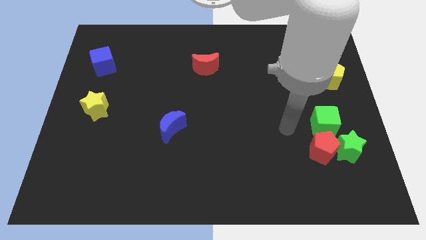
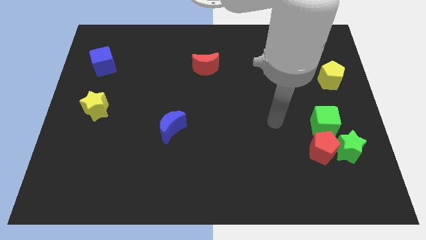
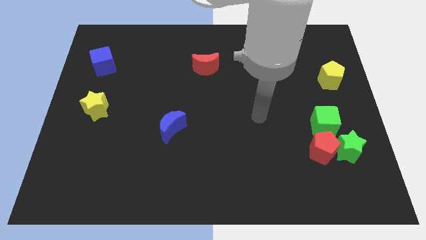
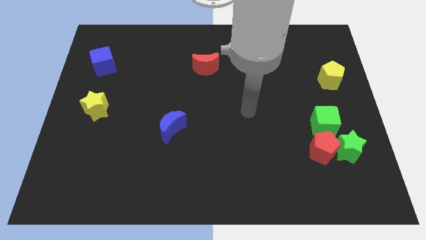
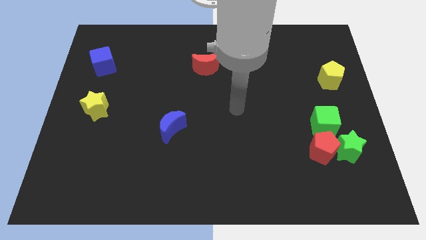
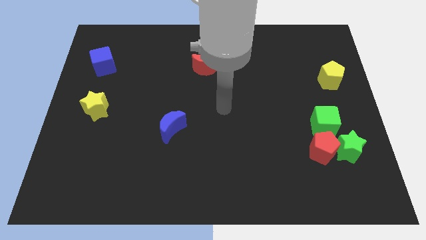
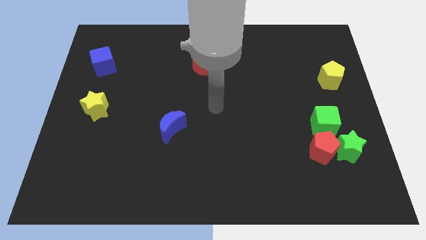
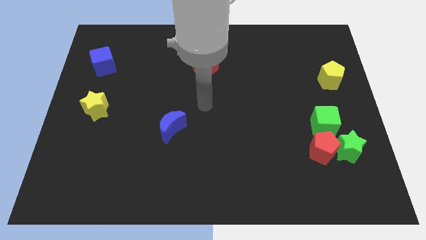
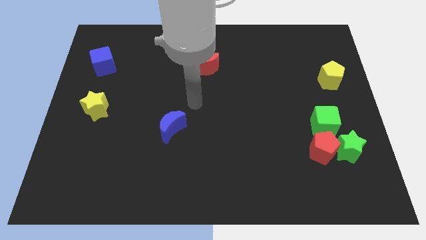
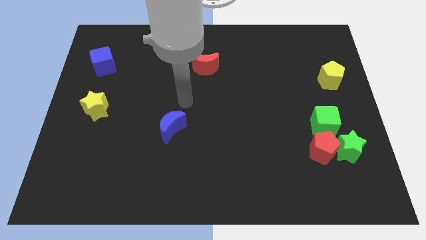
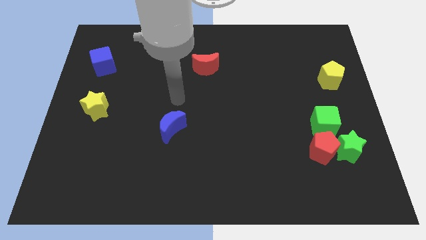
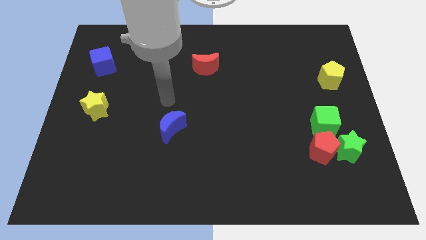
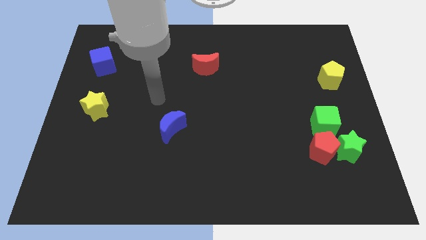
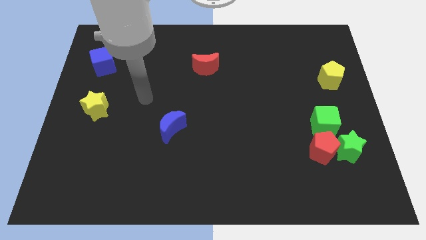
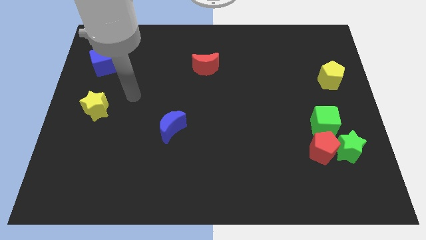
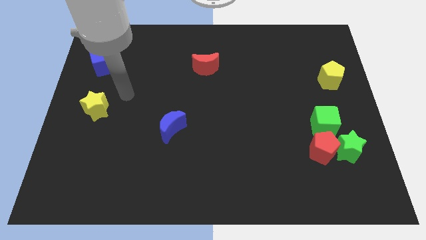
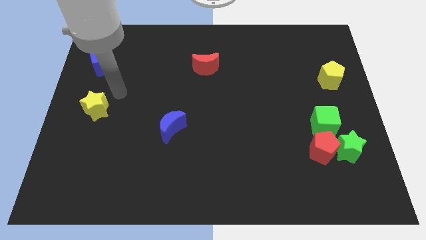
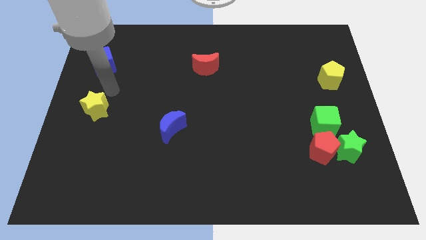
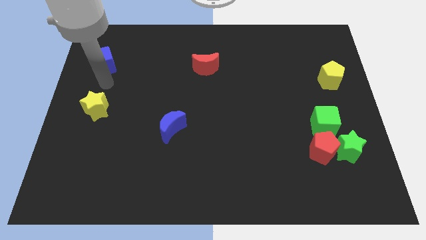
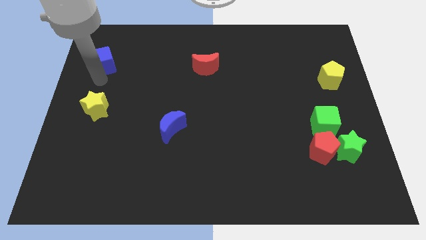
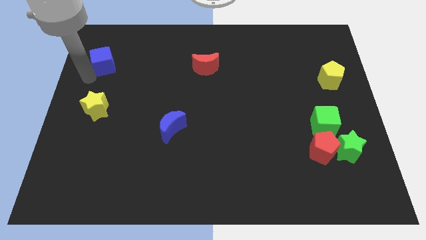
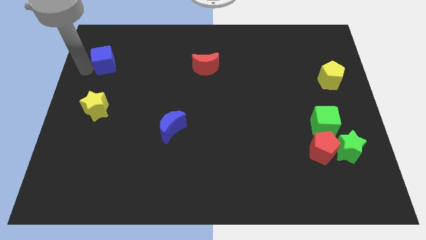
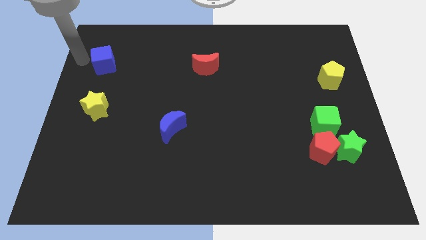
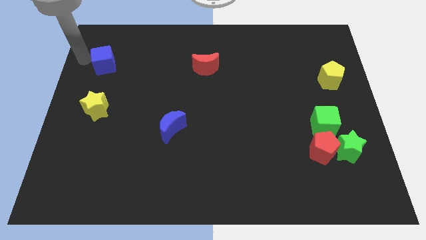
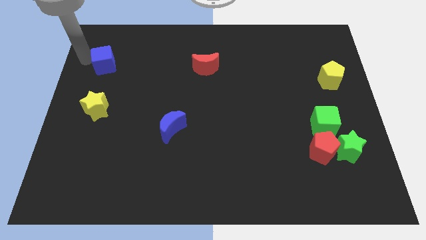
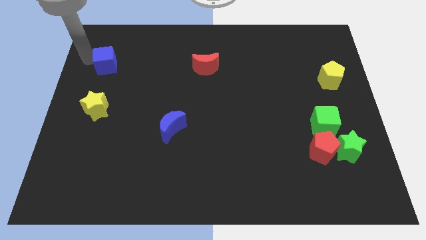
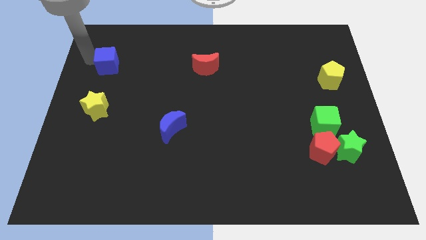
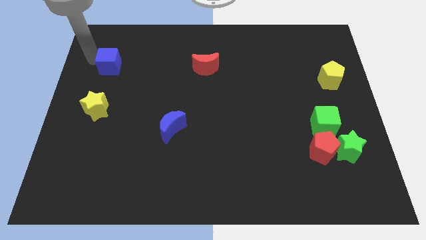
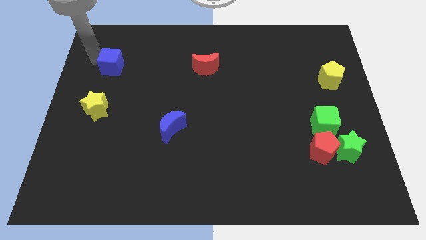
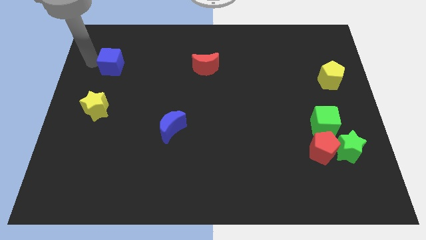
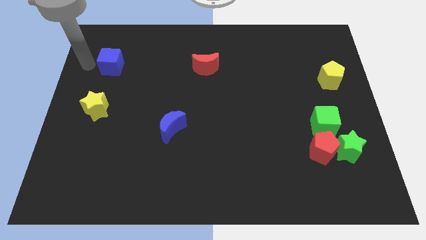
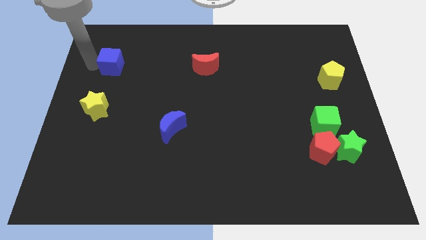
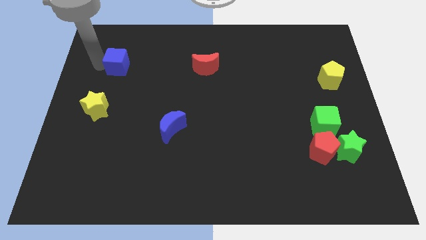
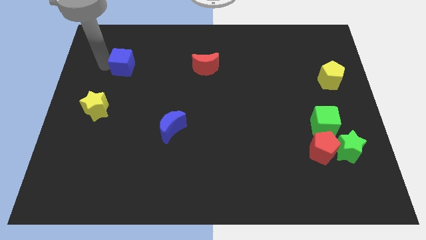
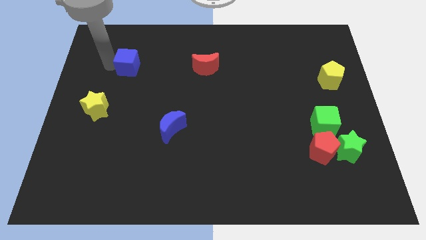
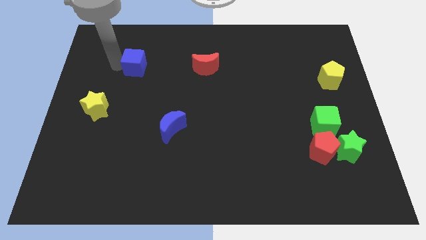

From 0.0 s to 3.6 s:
push the blue cube right a little

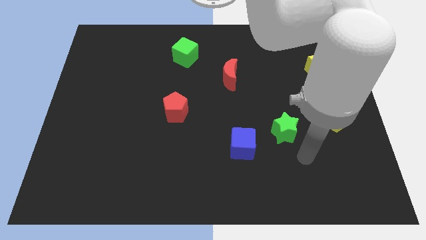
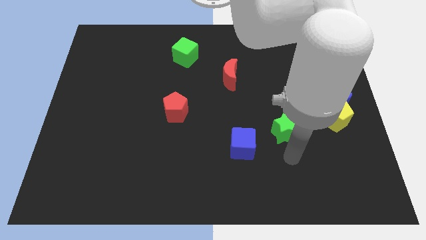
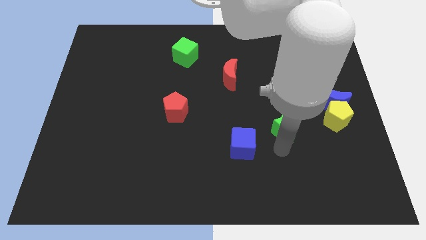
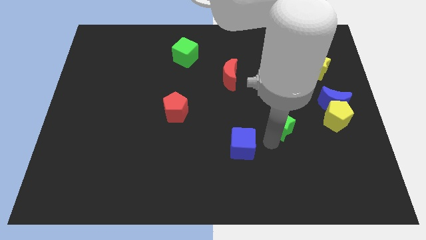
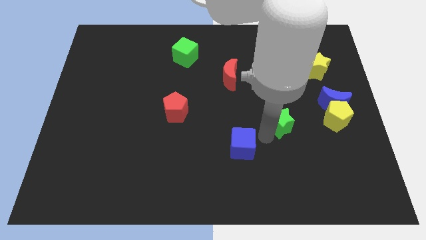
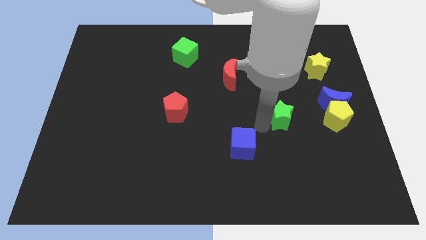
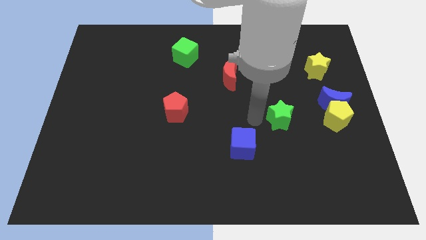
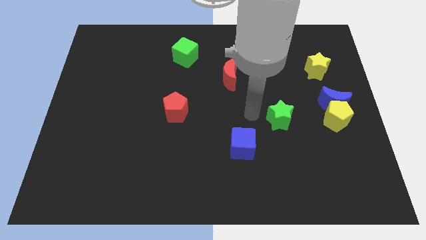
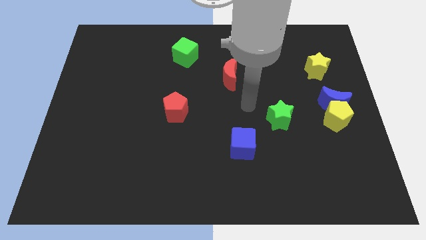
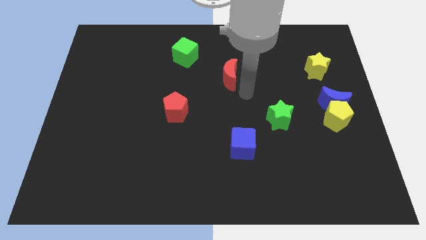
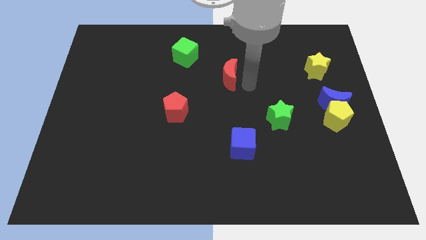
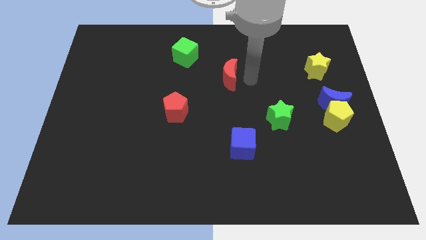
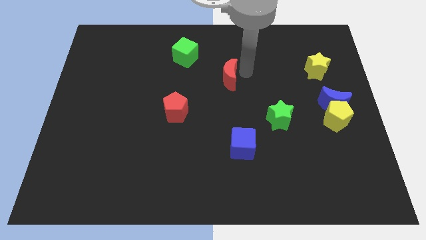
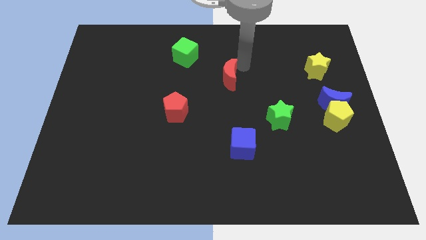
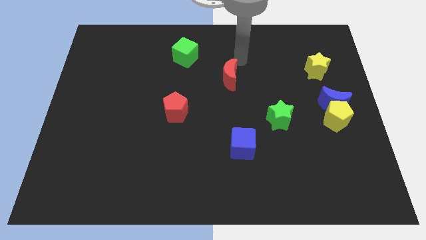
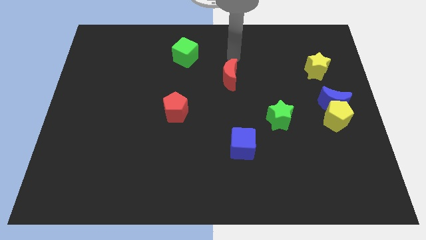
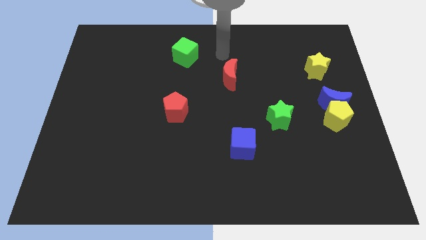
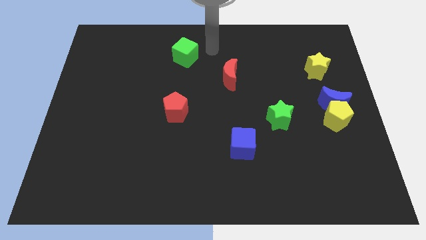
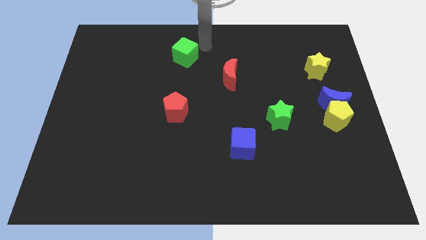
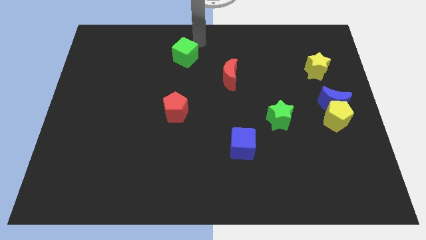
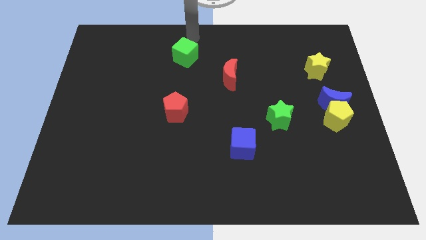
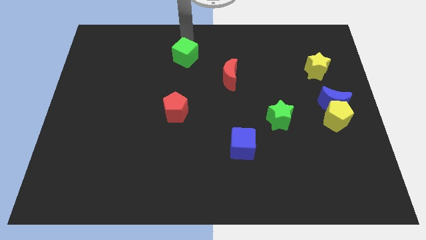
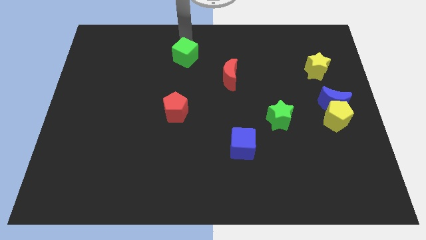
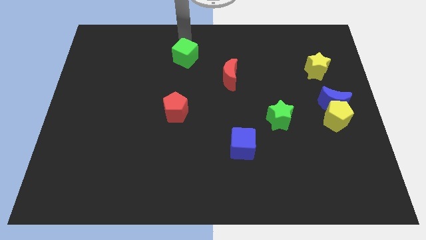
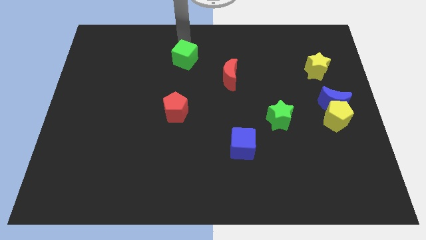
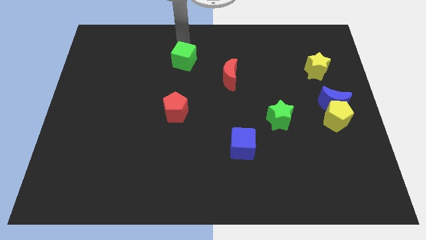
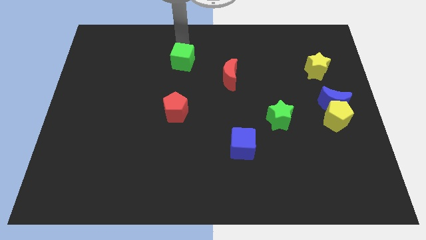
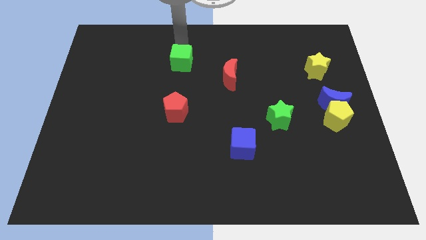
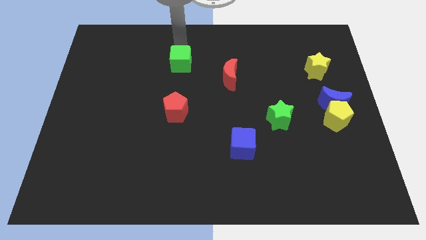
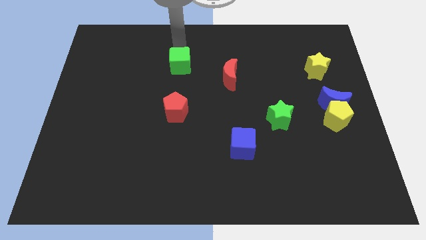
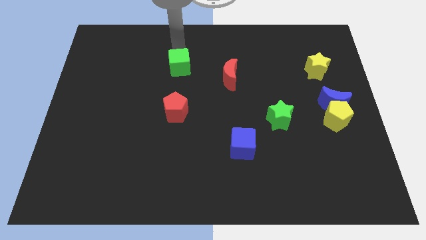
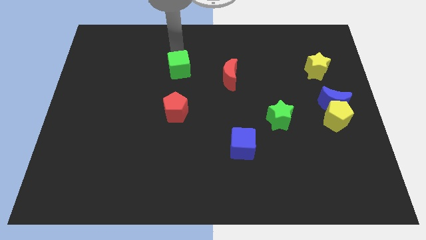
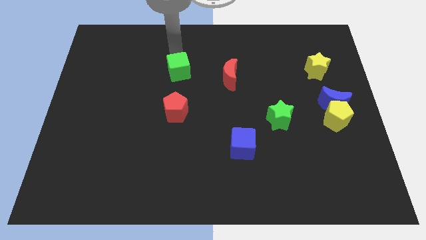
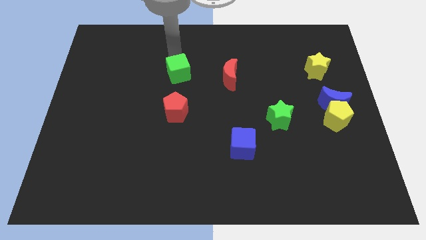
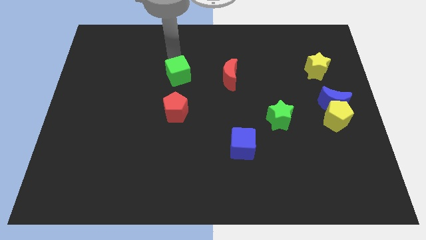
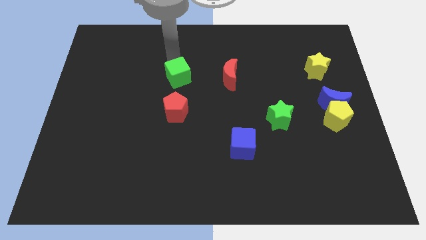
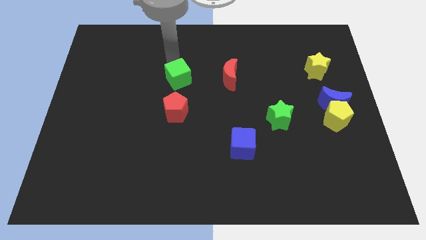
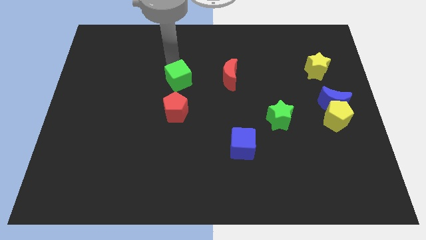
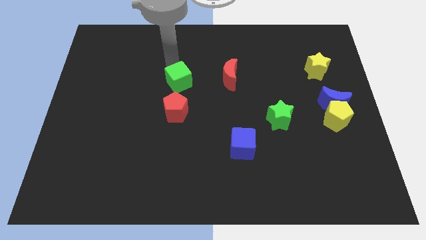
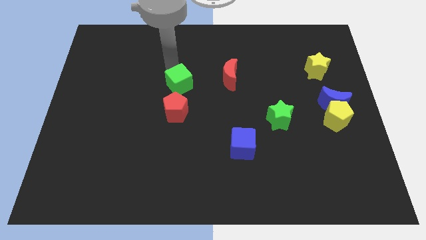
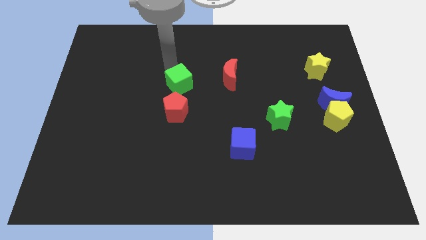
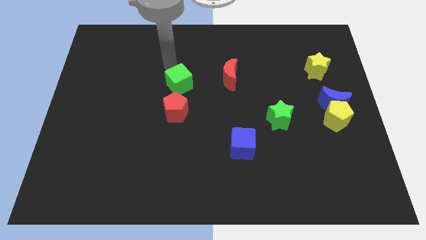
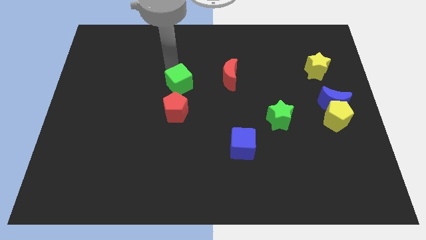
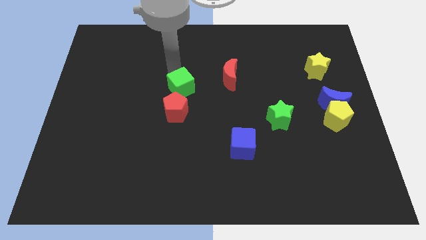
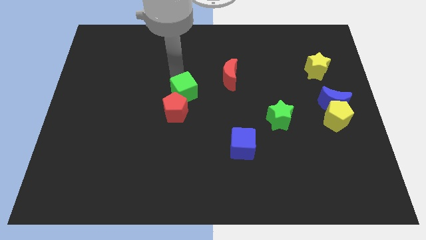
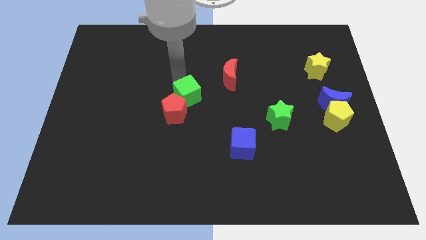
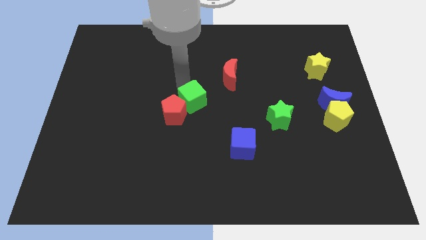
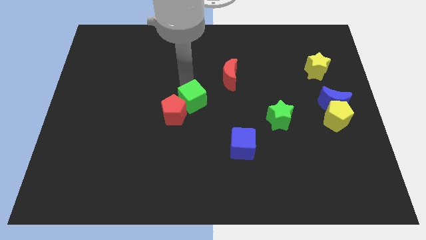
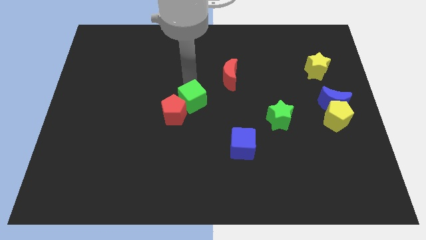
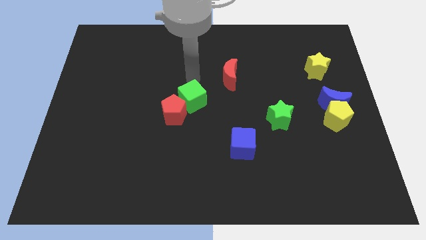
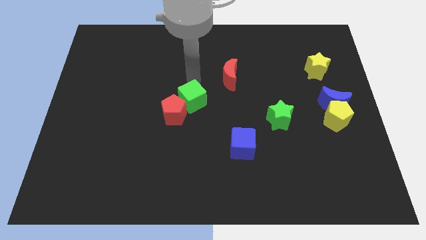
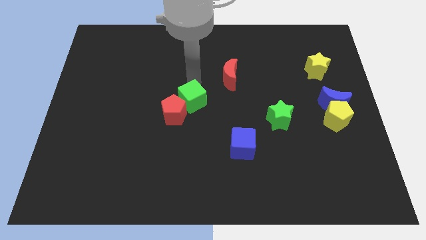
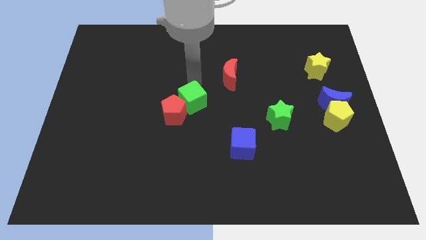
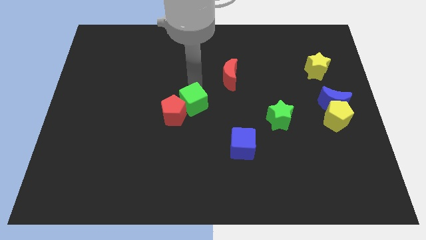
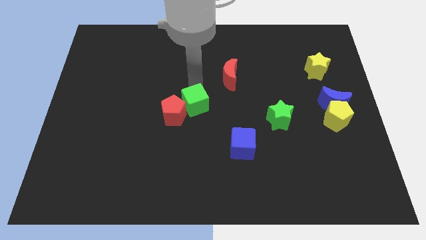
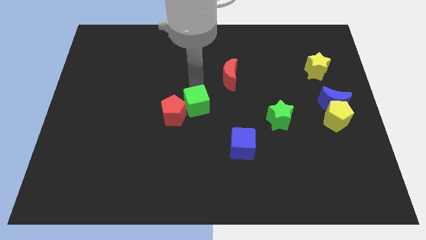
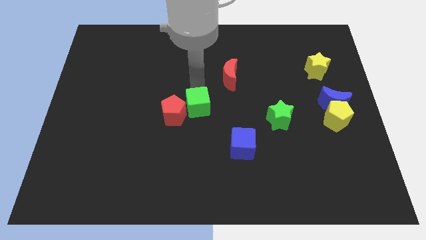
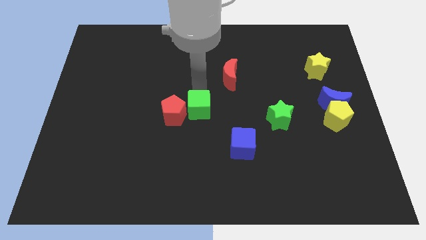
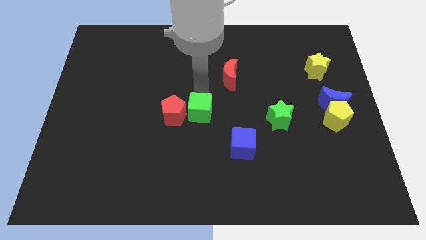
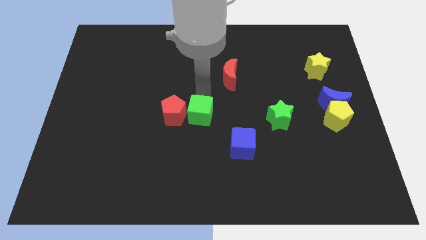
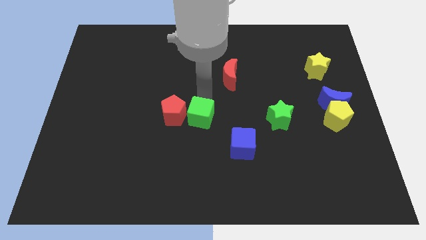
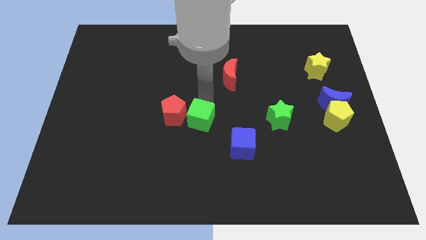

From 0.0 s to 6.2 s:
move the green cube down
